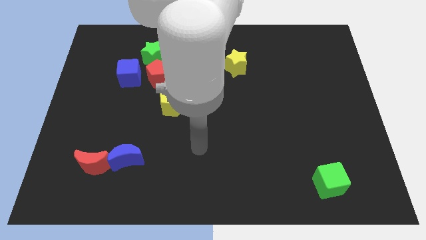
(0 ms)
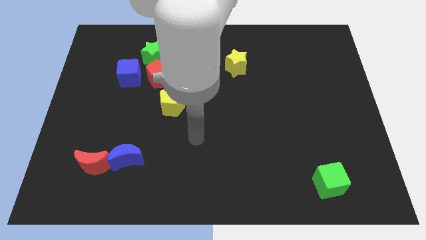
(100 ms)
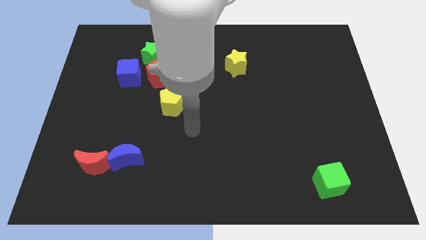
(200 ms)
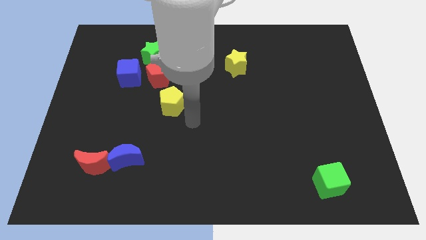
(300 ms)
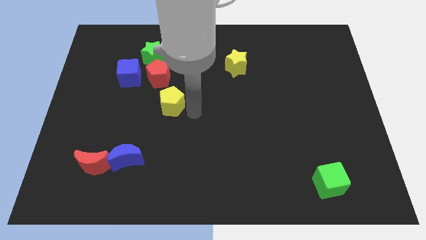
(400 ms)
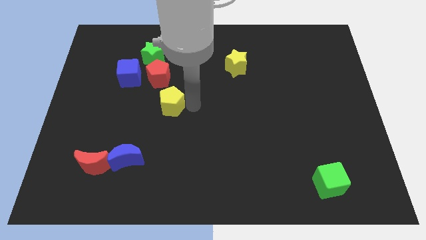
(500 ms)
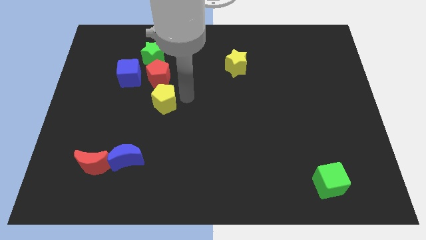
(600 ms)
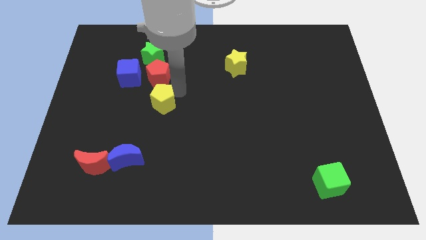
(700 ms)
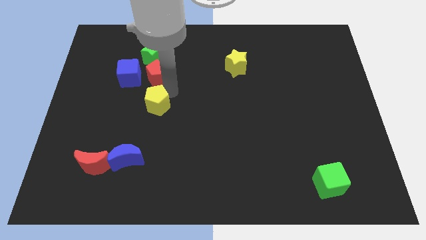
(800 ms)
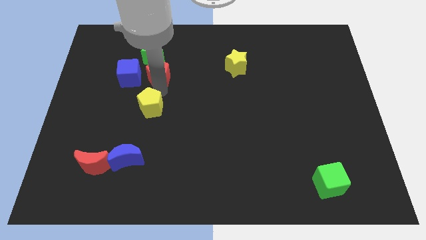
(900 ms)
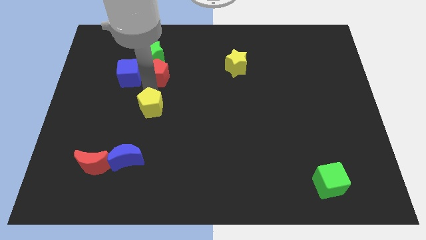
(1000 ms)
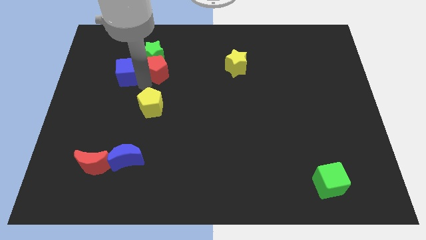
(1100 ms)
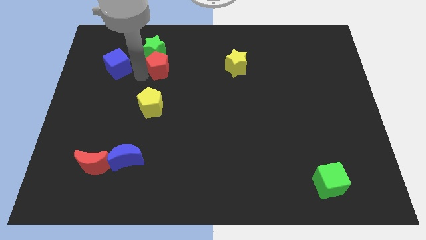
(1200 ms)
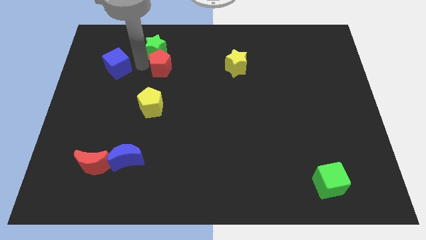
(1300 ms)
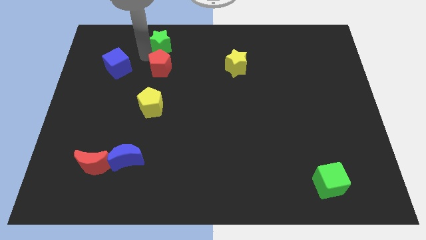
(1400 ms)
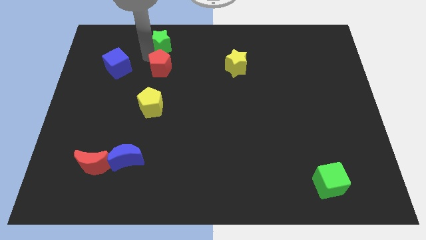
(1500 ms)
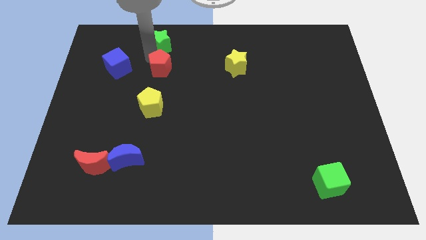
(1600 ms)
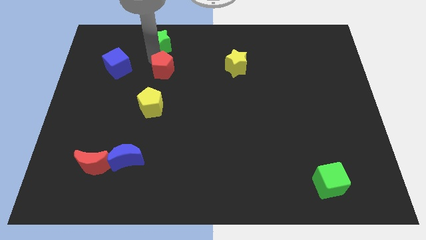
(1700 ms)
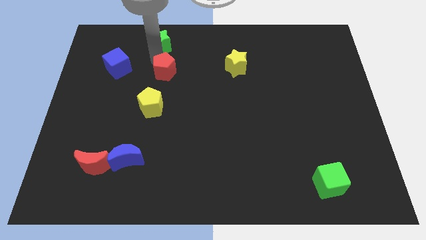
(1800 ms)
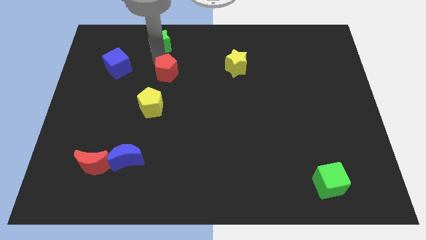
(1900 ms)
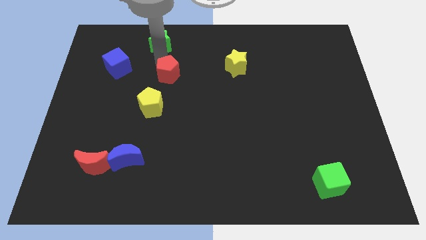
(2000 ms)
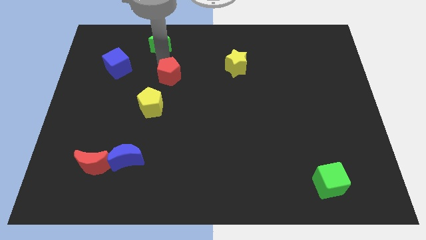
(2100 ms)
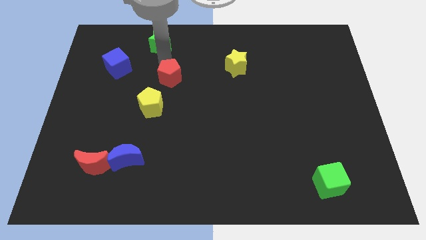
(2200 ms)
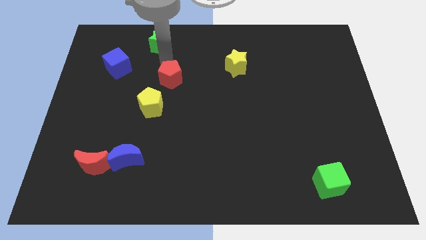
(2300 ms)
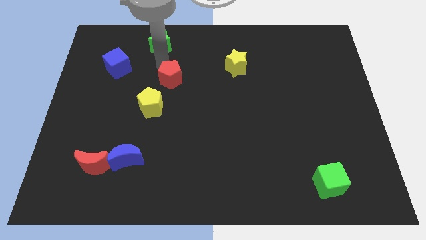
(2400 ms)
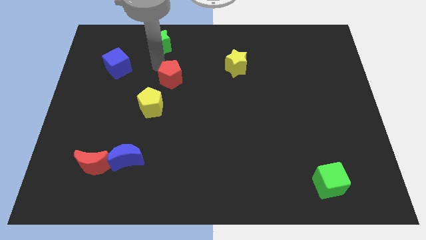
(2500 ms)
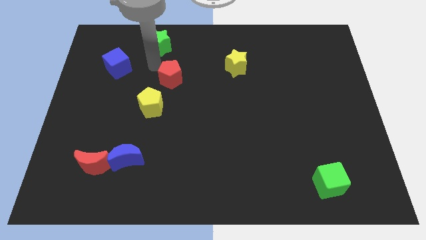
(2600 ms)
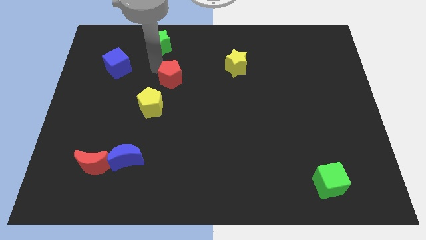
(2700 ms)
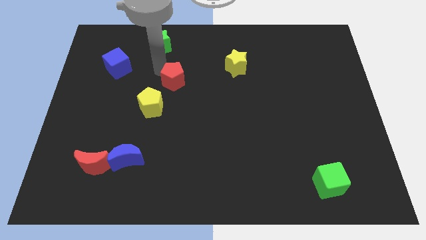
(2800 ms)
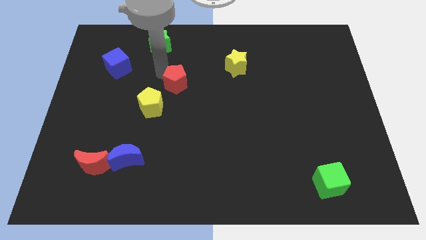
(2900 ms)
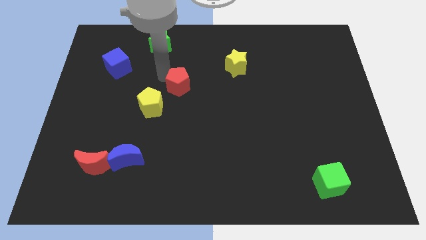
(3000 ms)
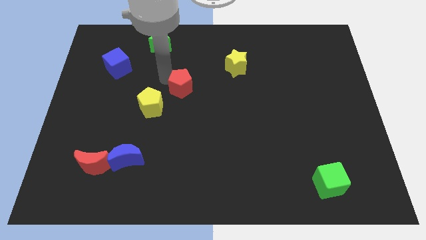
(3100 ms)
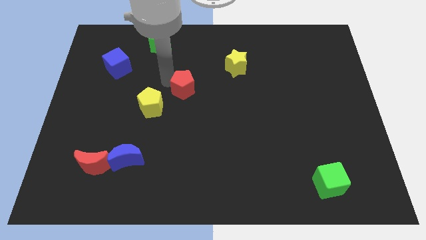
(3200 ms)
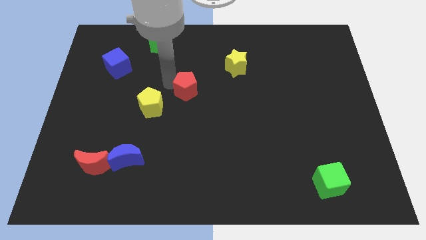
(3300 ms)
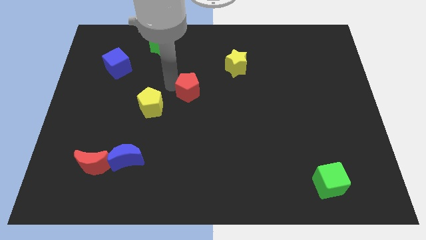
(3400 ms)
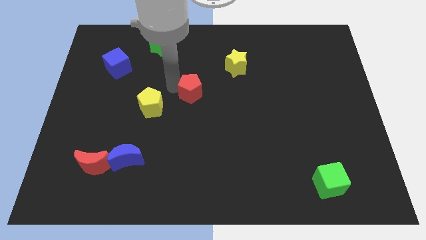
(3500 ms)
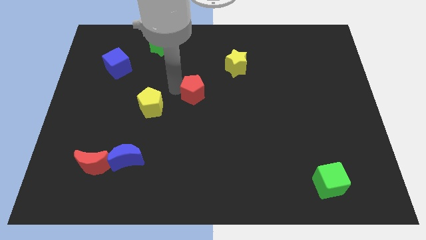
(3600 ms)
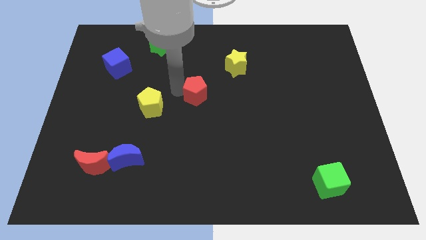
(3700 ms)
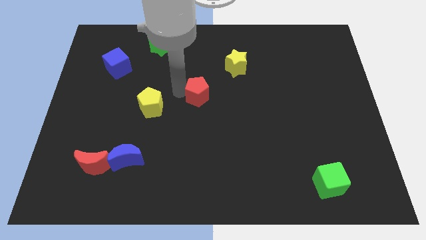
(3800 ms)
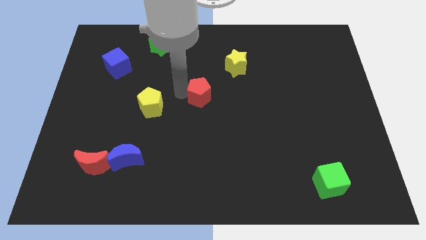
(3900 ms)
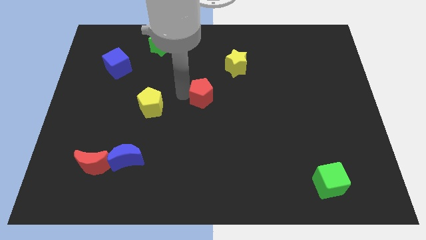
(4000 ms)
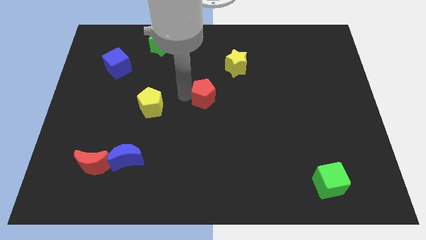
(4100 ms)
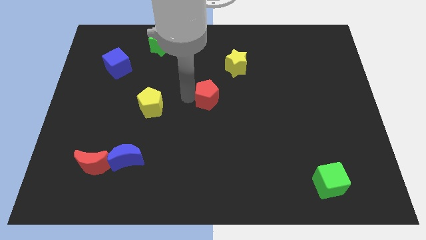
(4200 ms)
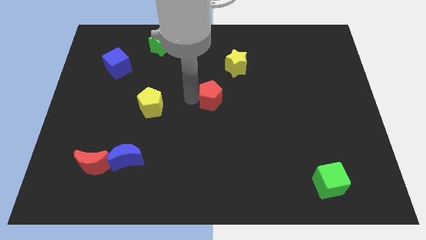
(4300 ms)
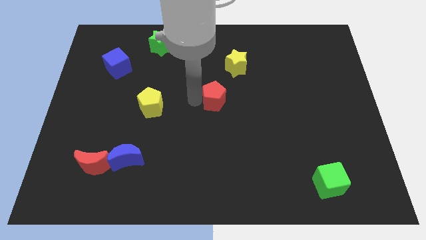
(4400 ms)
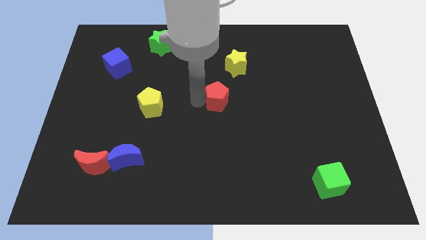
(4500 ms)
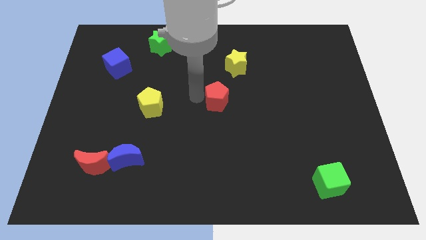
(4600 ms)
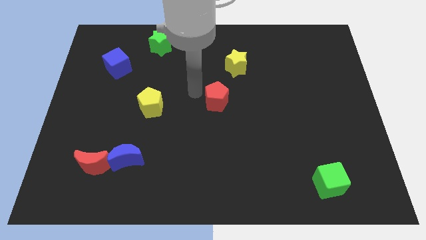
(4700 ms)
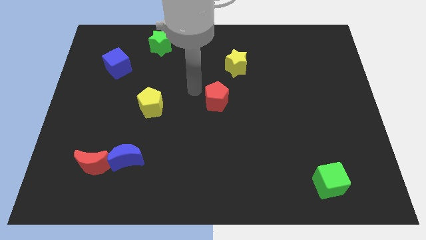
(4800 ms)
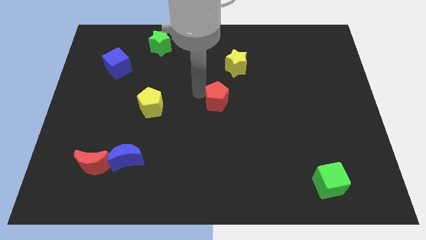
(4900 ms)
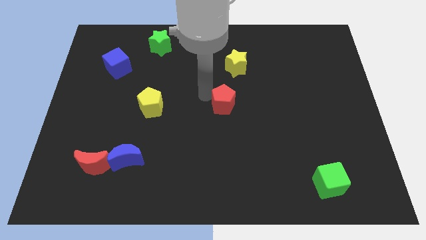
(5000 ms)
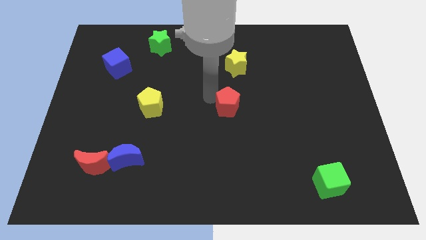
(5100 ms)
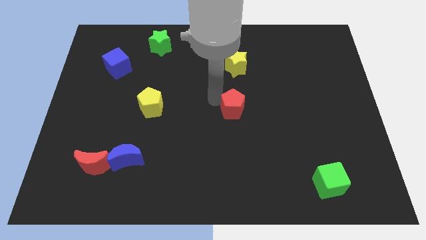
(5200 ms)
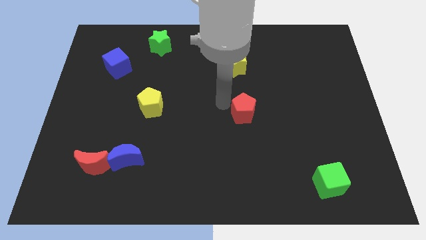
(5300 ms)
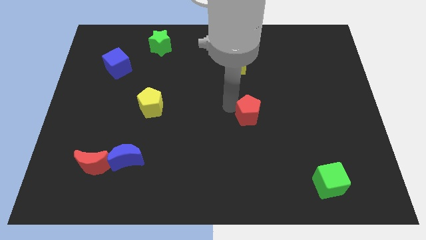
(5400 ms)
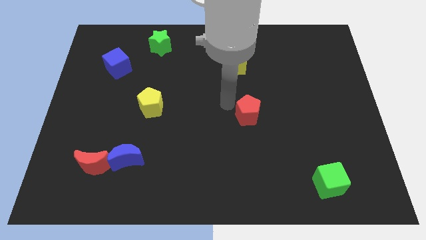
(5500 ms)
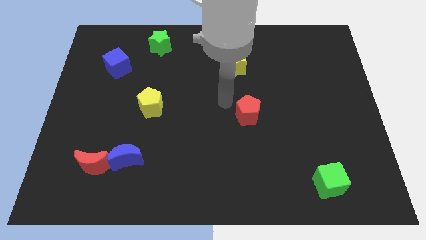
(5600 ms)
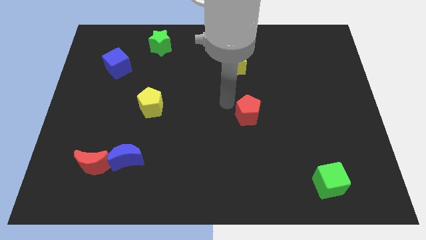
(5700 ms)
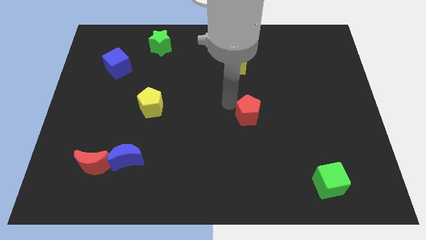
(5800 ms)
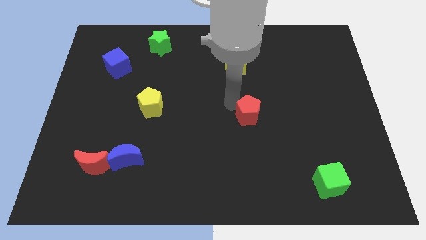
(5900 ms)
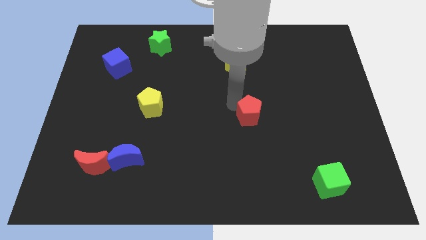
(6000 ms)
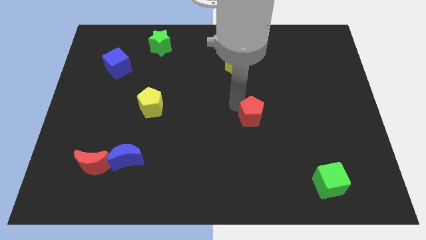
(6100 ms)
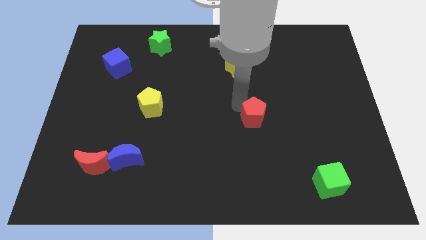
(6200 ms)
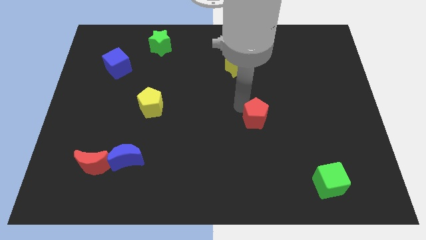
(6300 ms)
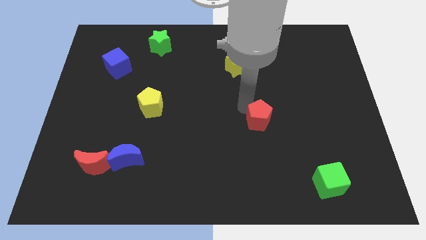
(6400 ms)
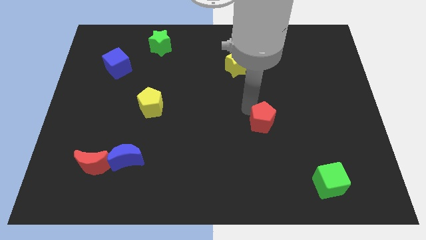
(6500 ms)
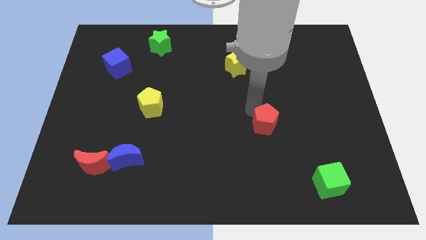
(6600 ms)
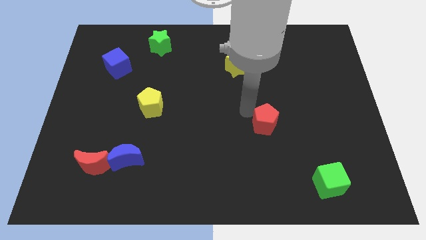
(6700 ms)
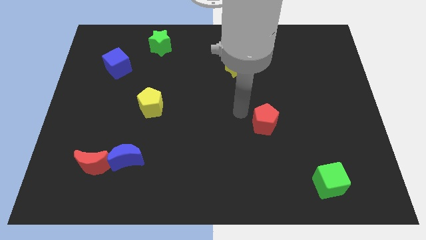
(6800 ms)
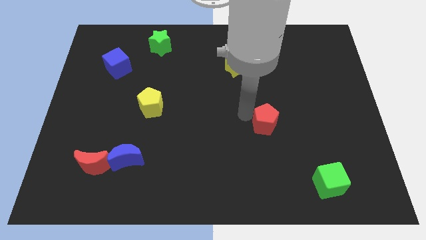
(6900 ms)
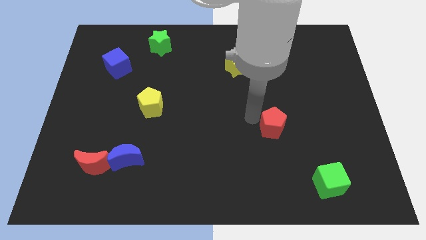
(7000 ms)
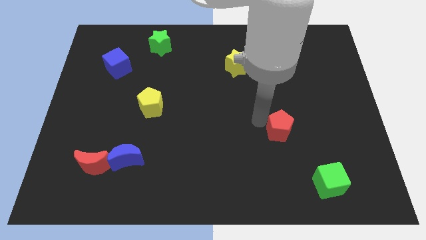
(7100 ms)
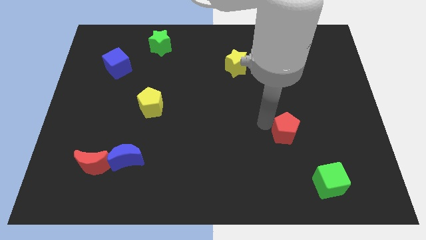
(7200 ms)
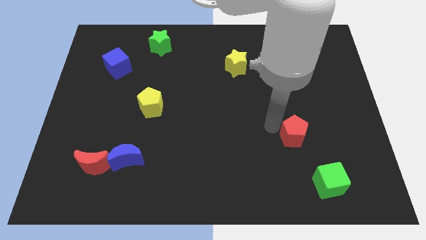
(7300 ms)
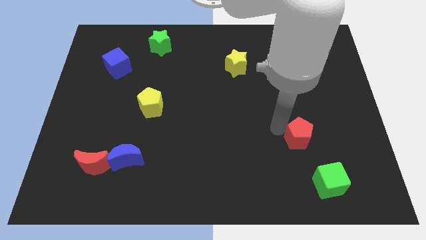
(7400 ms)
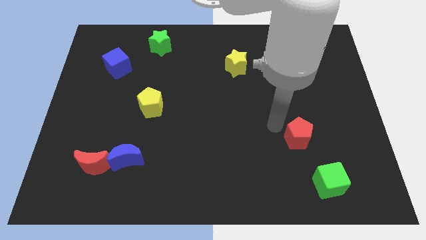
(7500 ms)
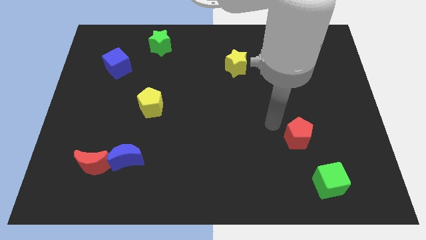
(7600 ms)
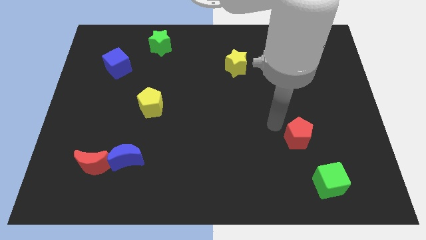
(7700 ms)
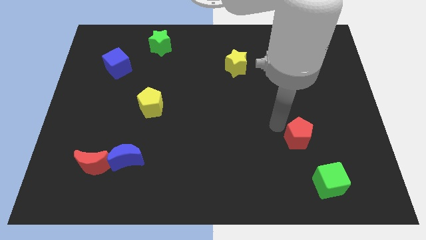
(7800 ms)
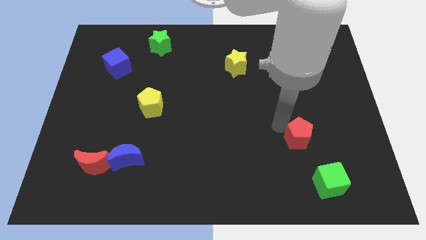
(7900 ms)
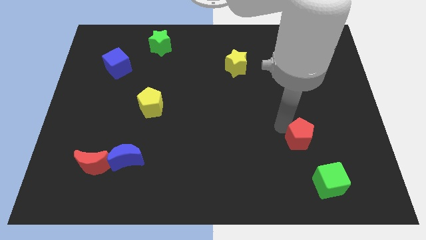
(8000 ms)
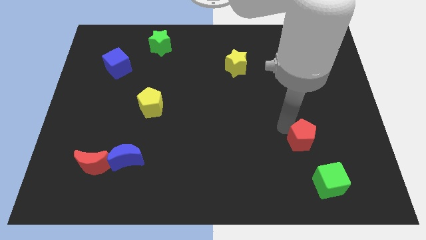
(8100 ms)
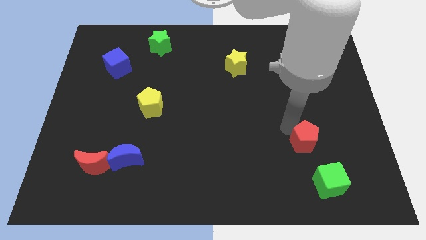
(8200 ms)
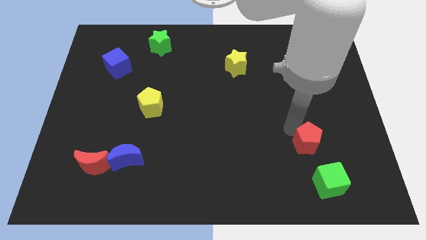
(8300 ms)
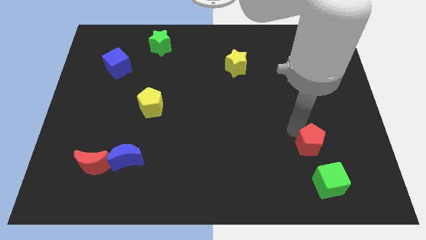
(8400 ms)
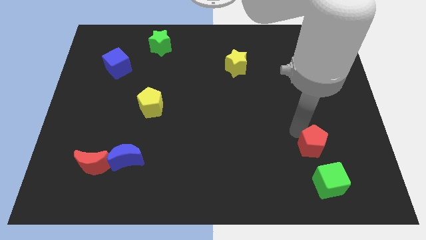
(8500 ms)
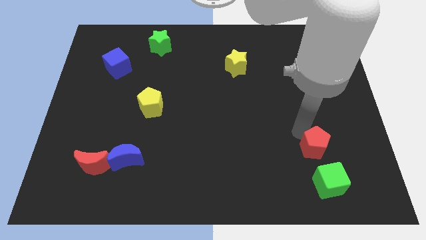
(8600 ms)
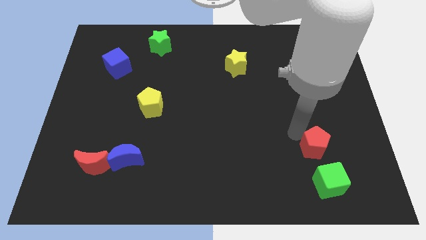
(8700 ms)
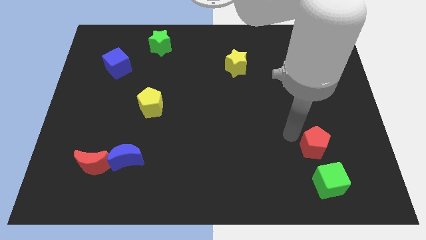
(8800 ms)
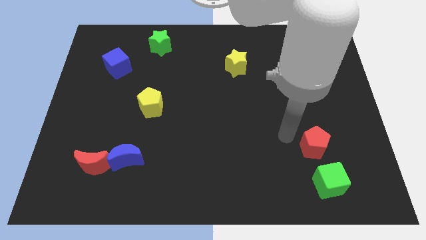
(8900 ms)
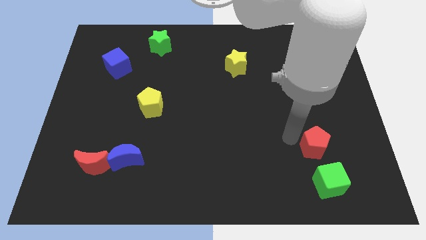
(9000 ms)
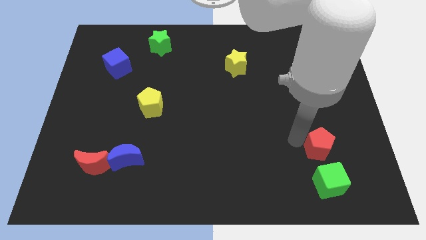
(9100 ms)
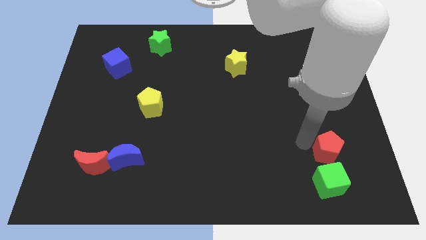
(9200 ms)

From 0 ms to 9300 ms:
slide the red pentagon to the top right of the green cube
